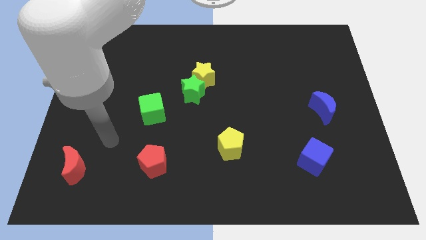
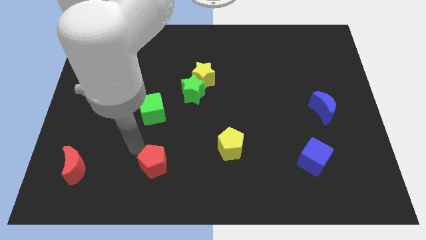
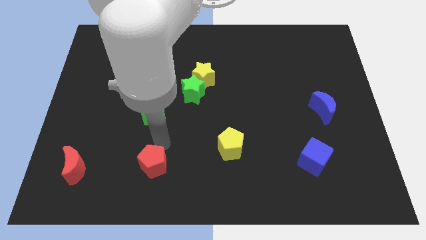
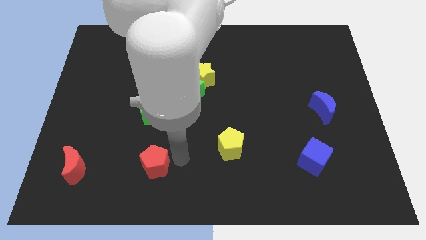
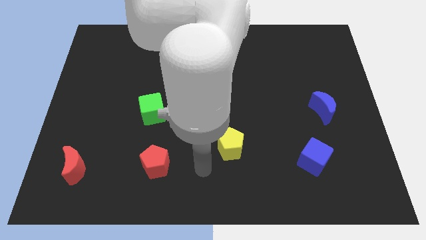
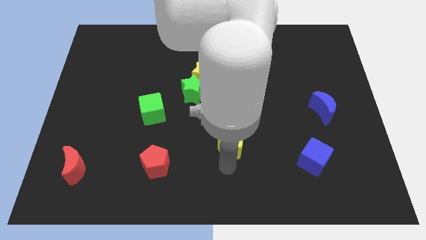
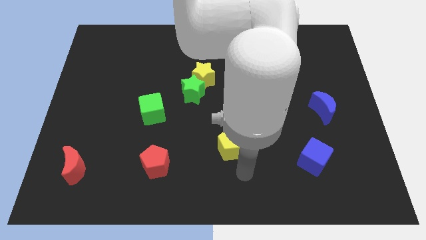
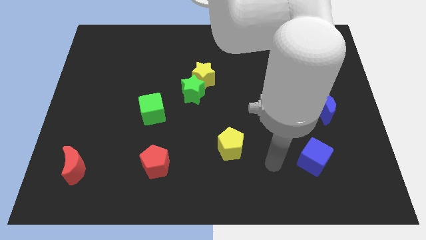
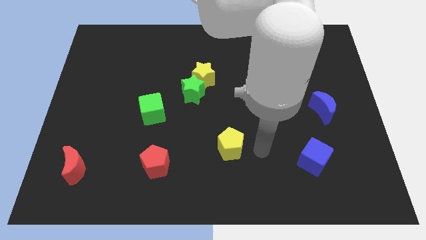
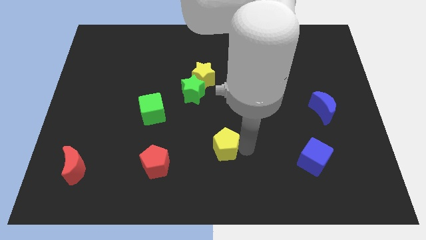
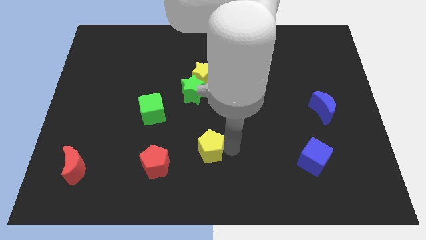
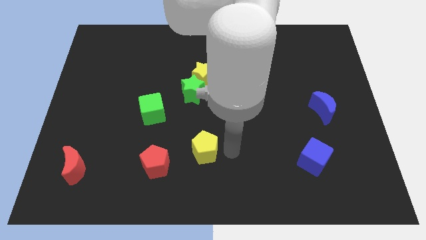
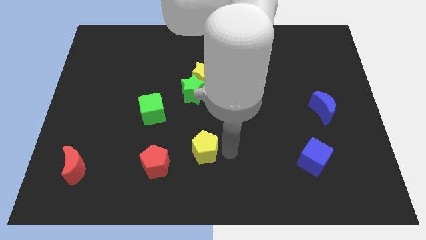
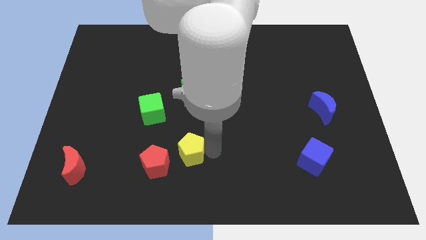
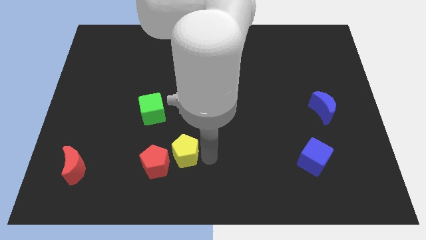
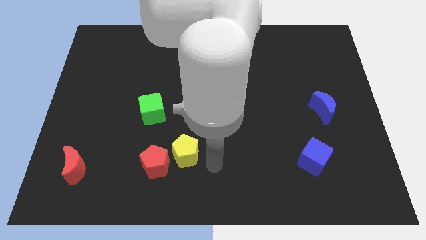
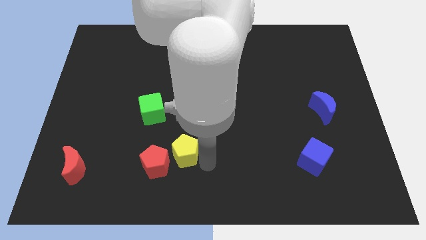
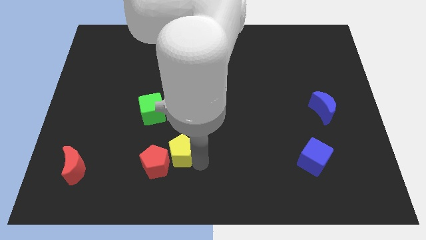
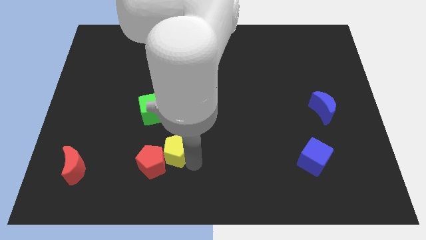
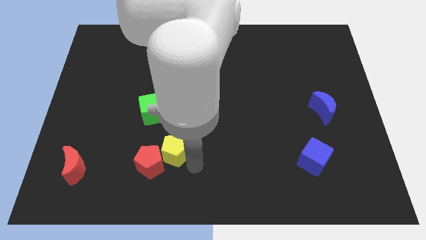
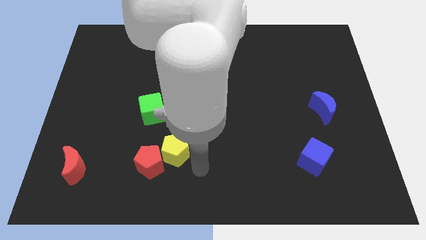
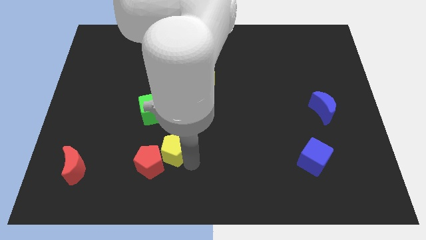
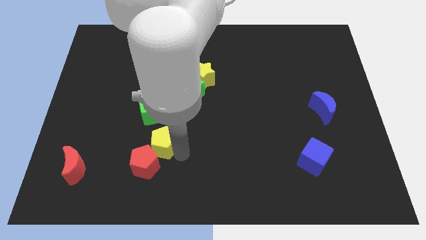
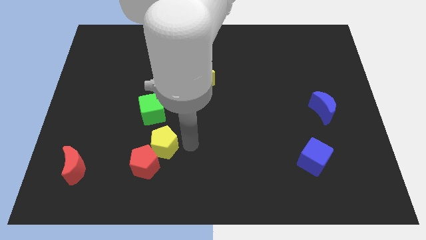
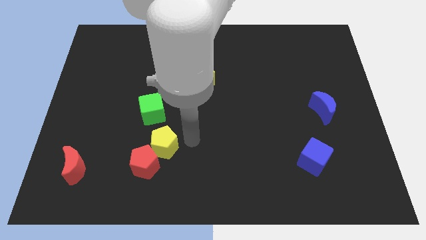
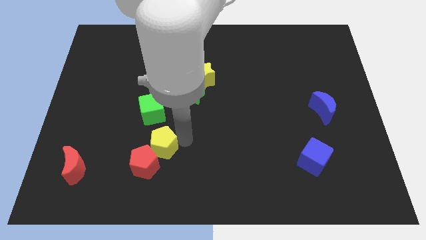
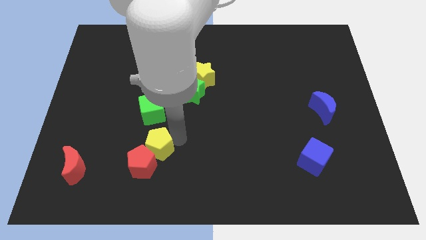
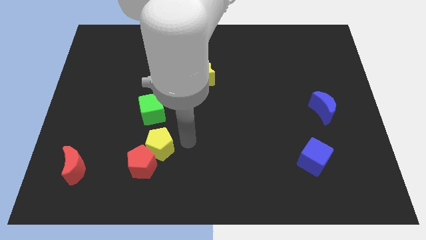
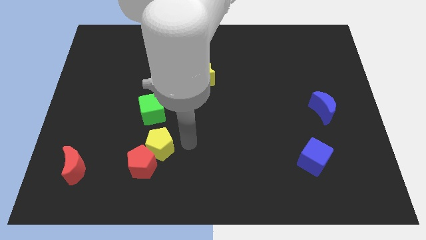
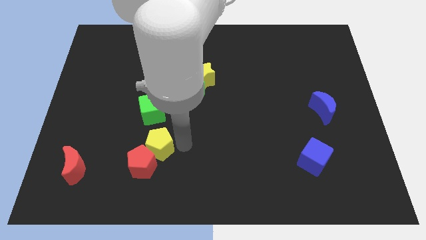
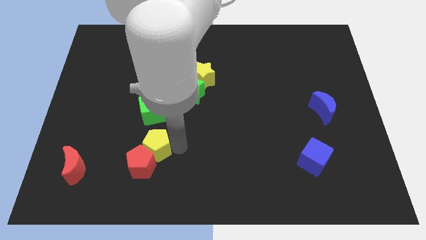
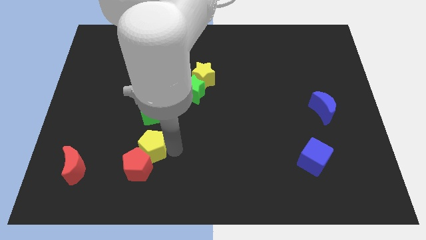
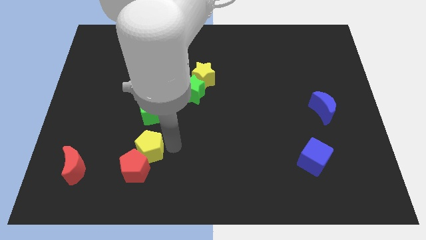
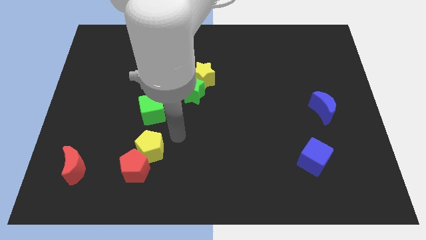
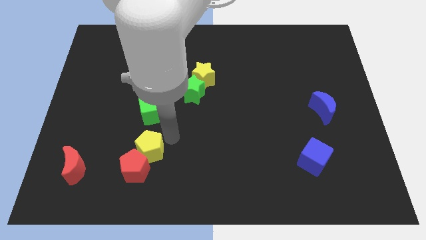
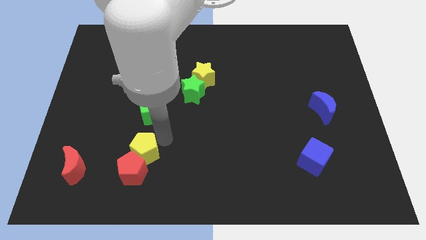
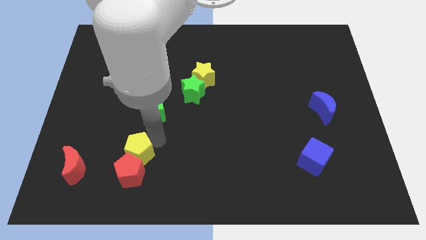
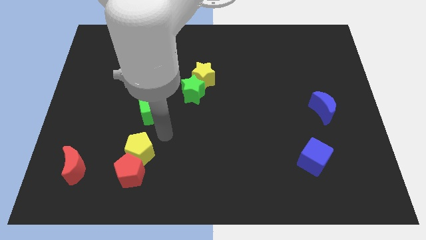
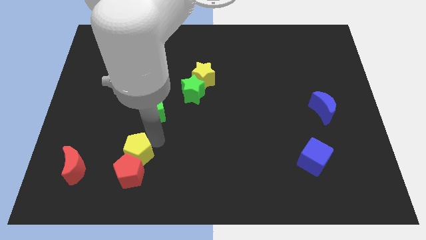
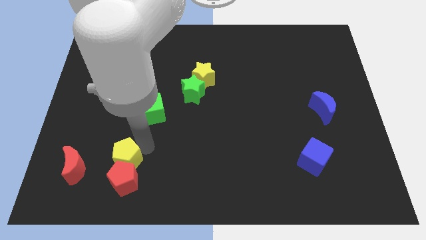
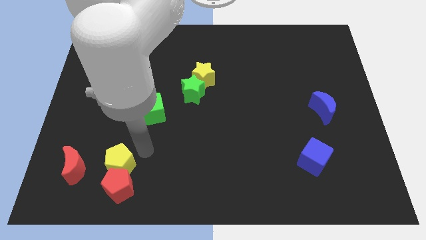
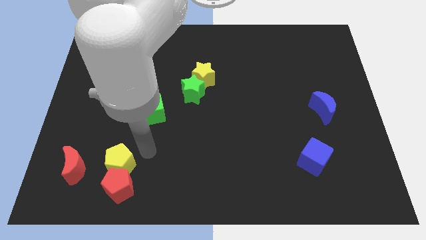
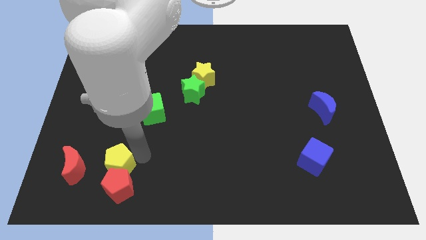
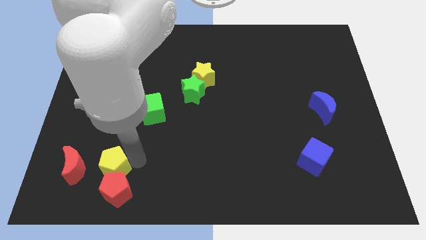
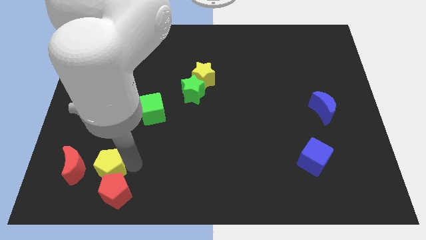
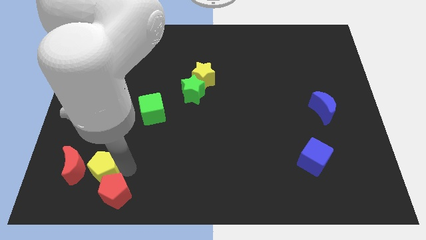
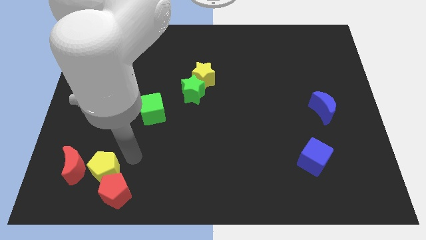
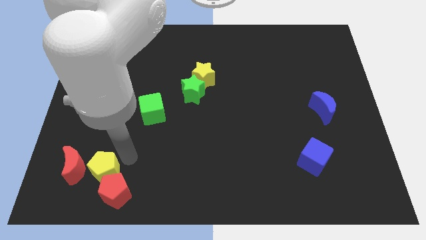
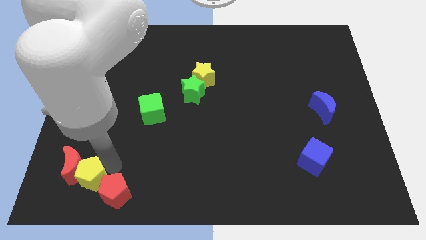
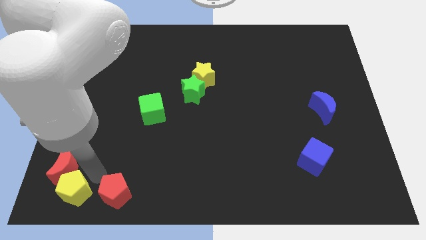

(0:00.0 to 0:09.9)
move the yellow pentagon to the bottom left corner

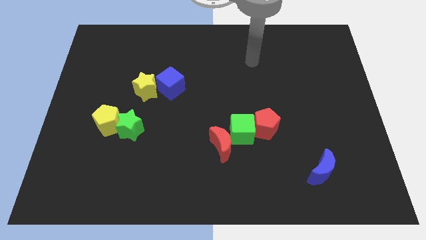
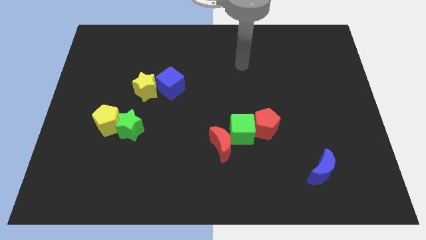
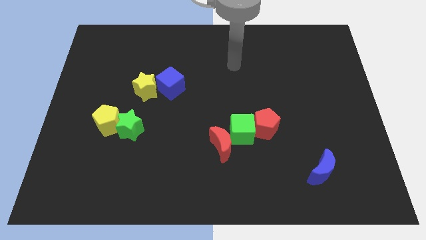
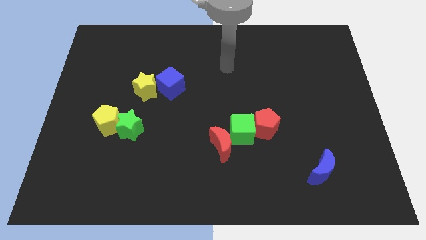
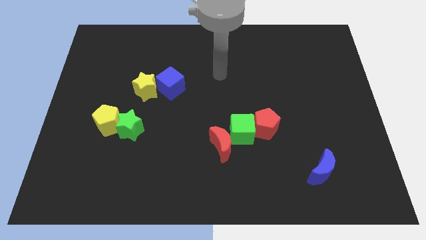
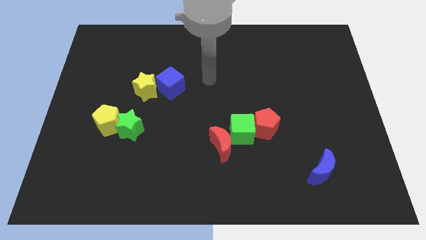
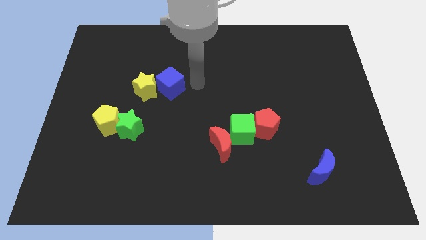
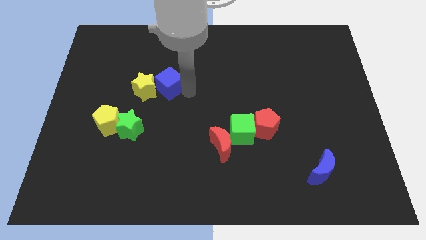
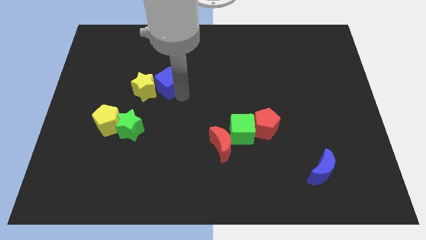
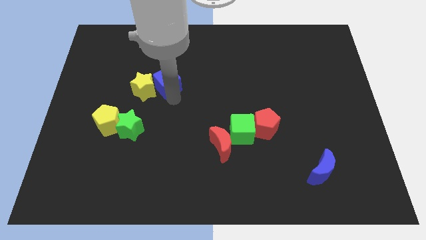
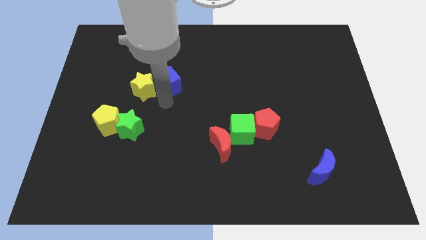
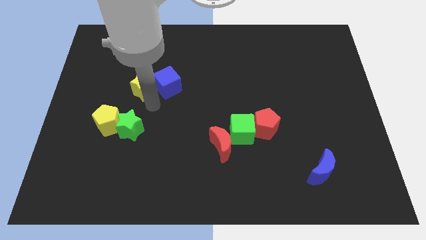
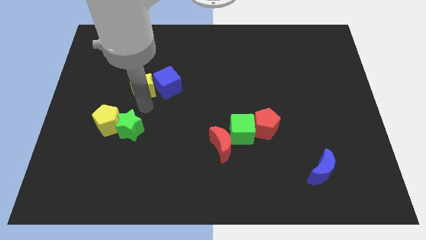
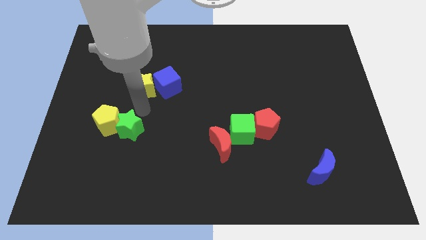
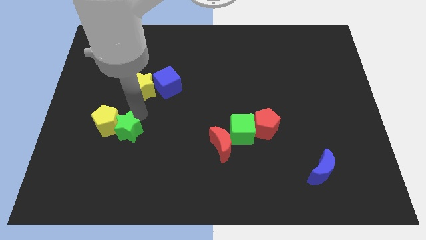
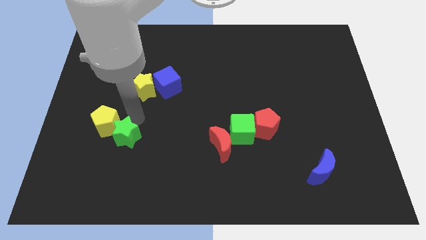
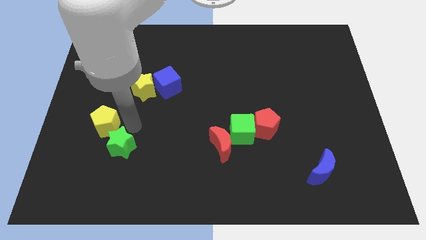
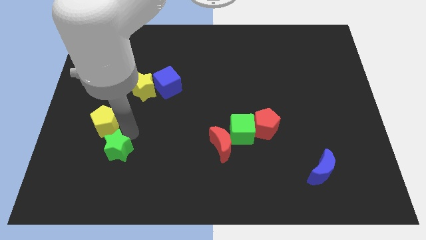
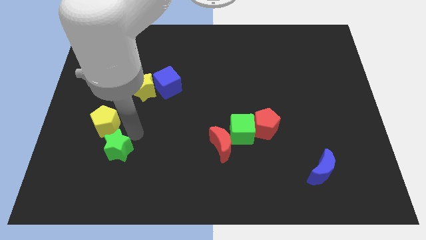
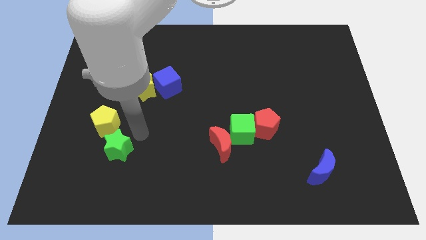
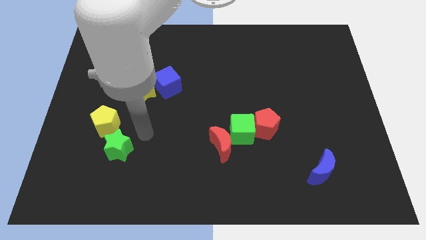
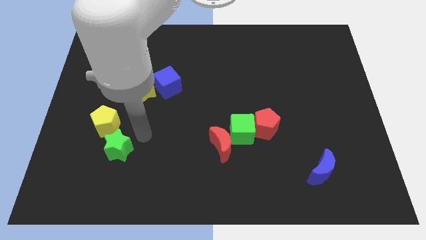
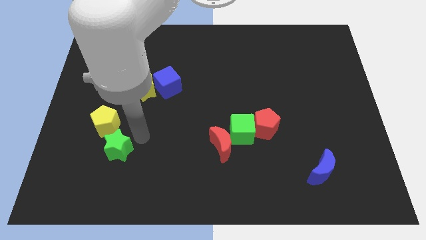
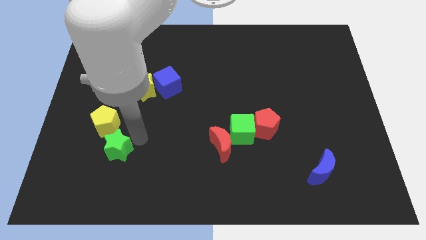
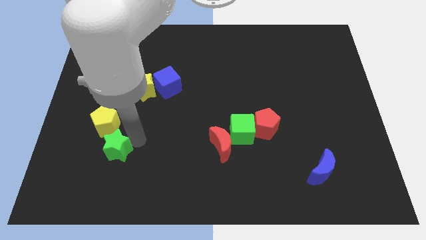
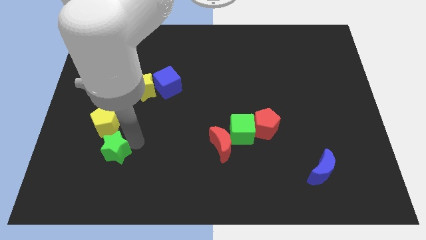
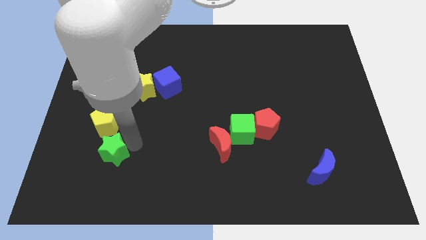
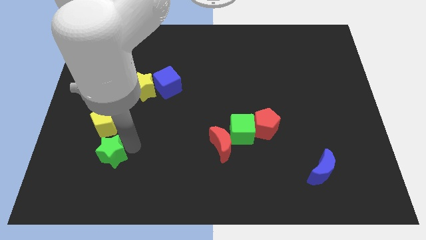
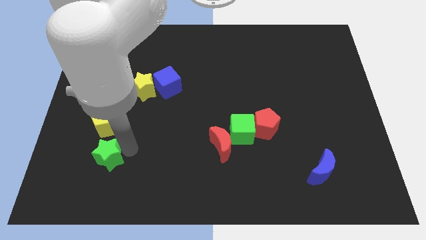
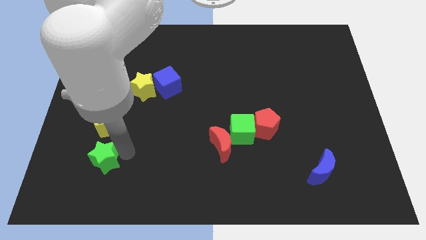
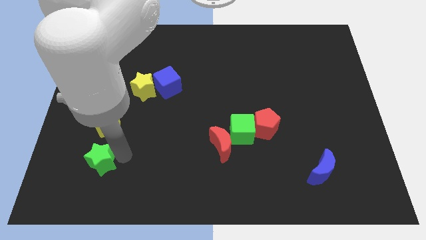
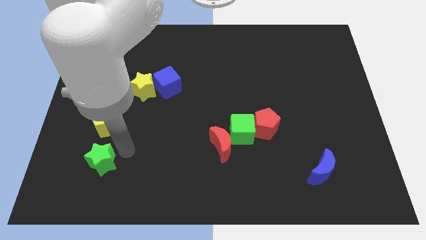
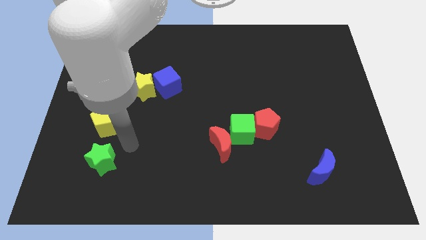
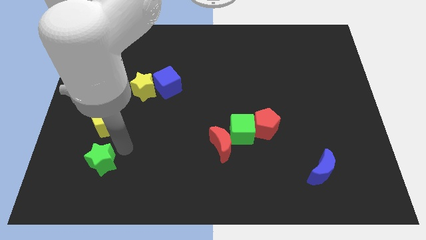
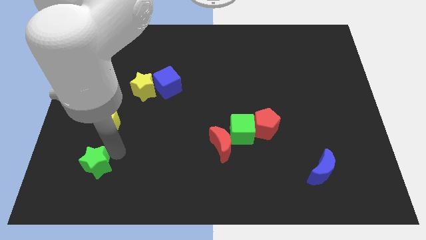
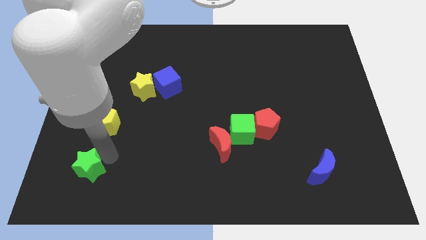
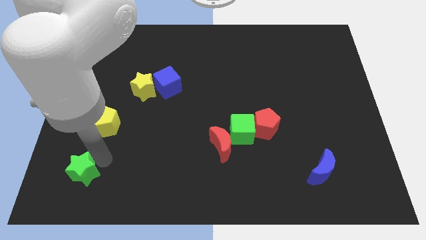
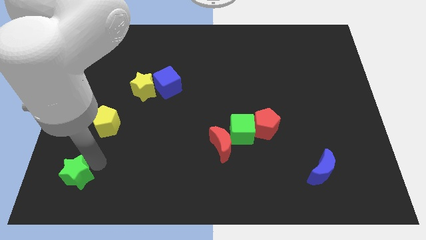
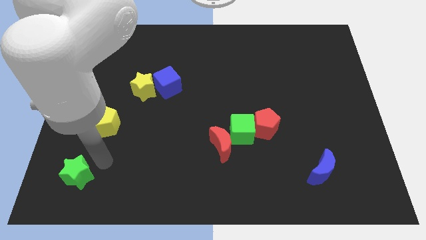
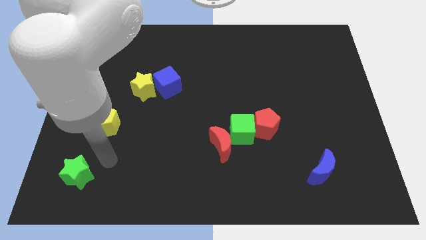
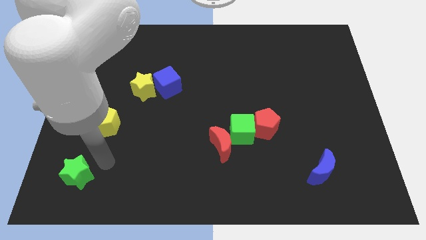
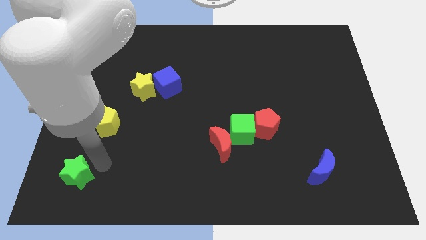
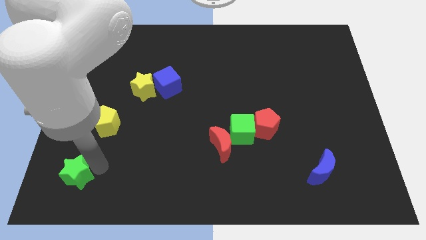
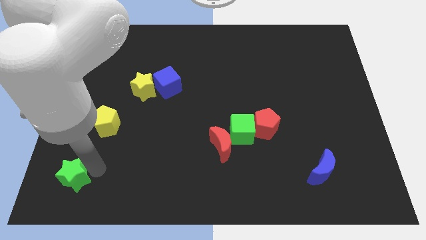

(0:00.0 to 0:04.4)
put the green star to the bottom left
